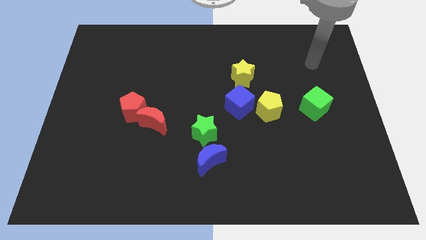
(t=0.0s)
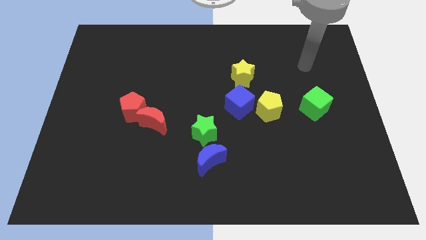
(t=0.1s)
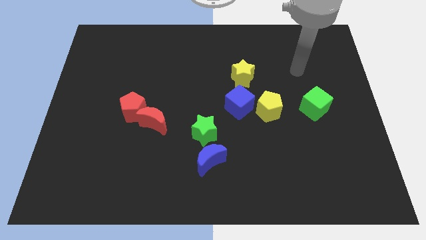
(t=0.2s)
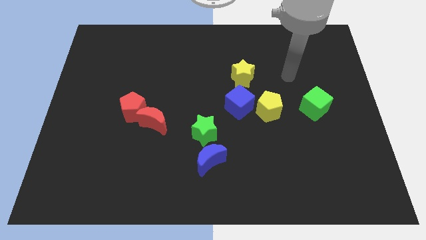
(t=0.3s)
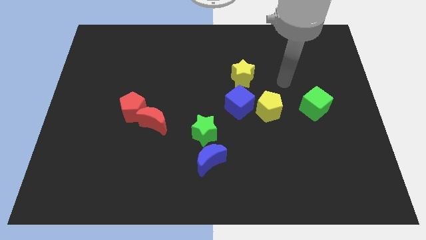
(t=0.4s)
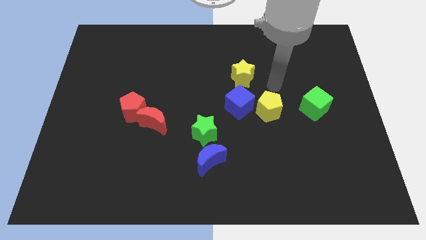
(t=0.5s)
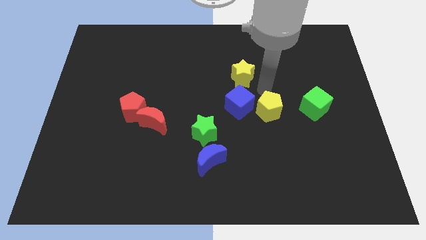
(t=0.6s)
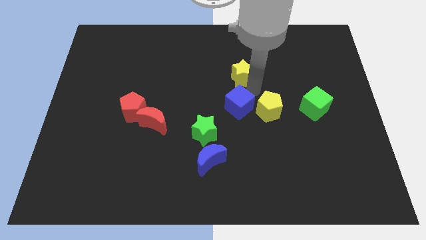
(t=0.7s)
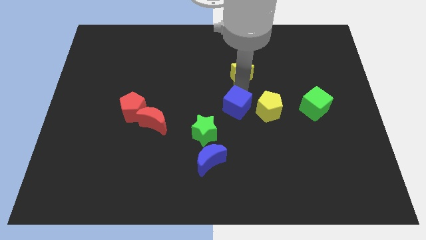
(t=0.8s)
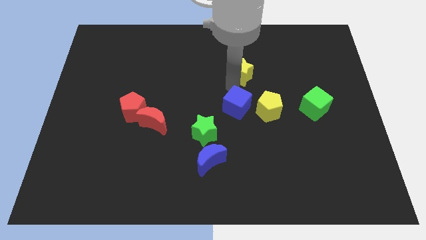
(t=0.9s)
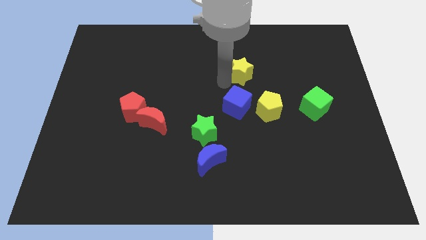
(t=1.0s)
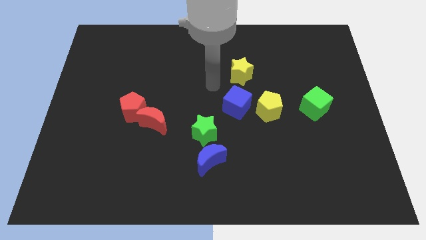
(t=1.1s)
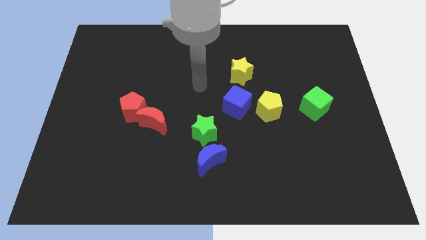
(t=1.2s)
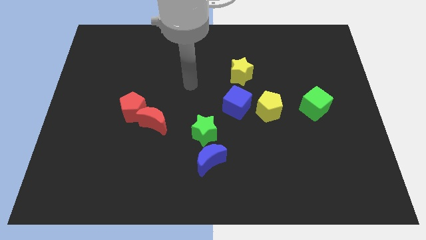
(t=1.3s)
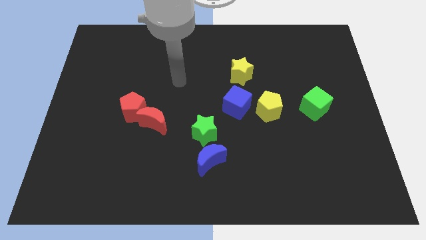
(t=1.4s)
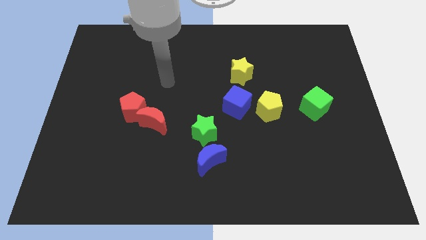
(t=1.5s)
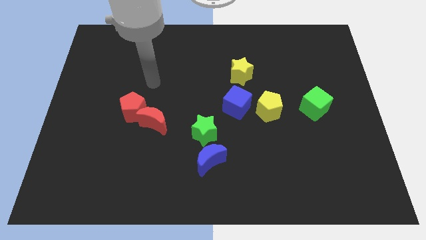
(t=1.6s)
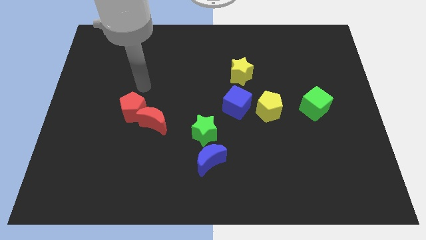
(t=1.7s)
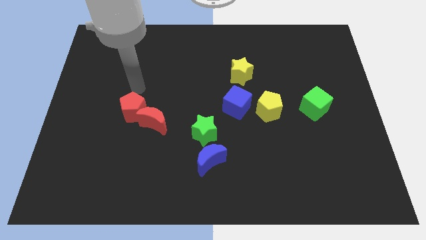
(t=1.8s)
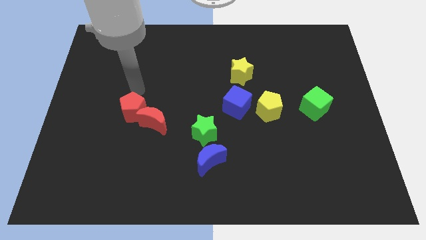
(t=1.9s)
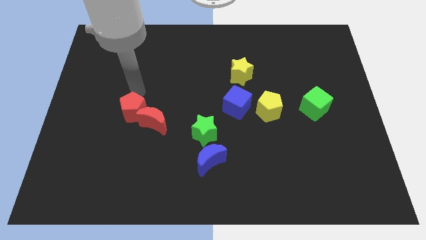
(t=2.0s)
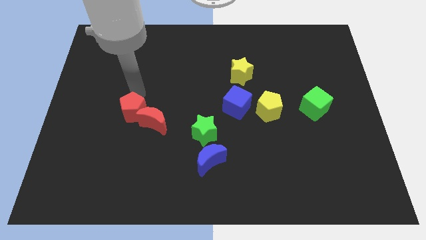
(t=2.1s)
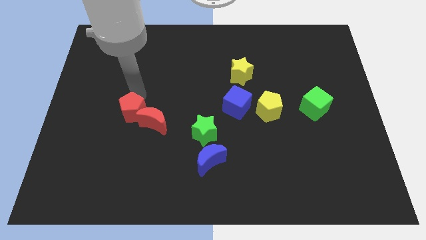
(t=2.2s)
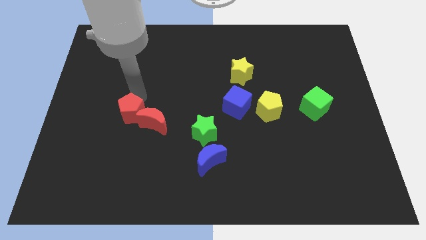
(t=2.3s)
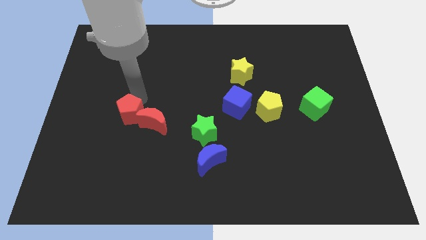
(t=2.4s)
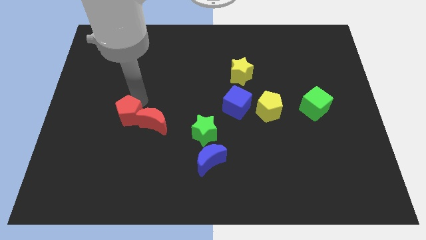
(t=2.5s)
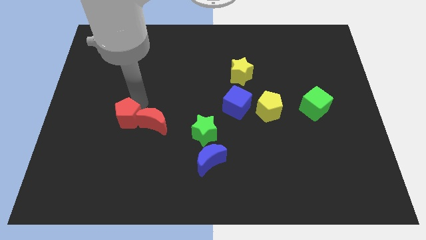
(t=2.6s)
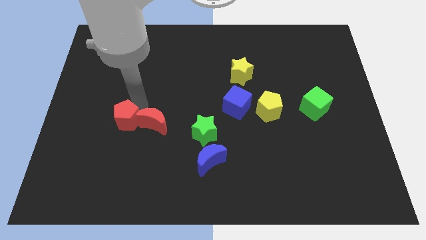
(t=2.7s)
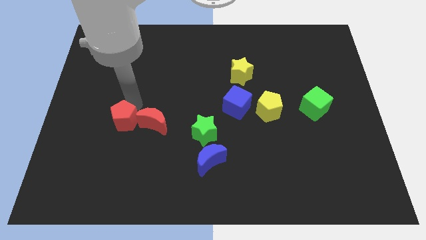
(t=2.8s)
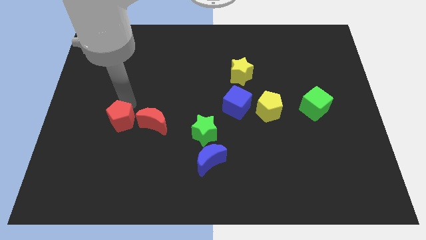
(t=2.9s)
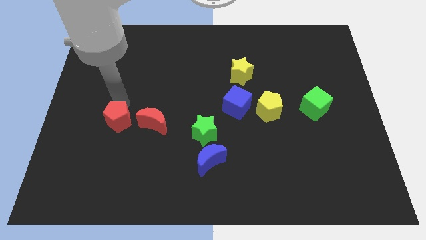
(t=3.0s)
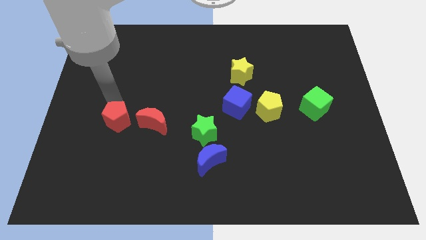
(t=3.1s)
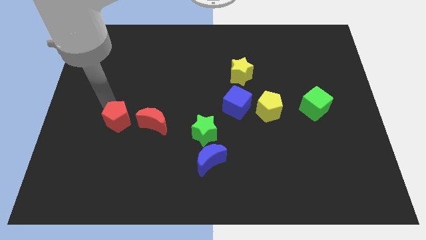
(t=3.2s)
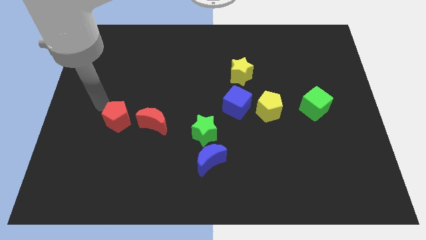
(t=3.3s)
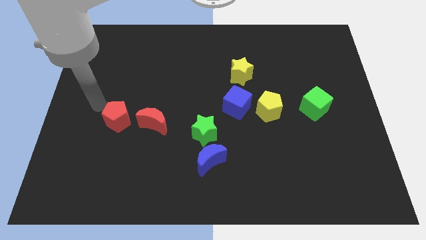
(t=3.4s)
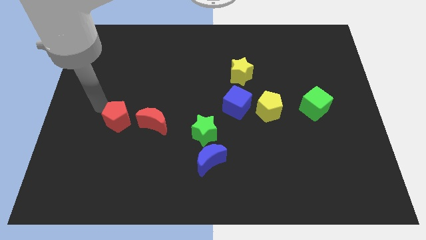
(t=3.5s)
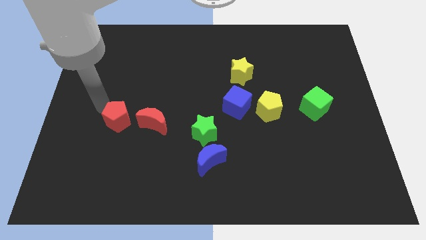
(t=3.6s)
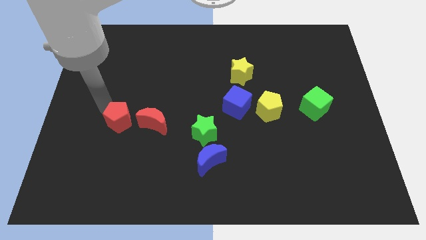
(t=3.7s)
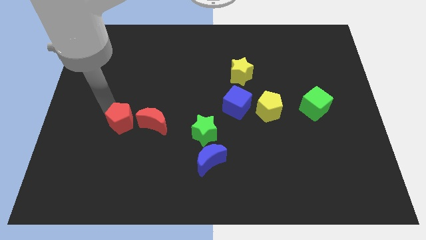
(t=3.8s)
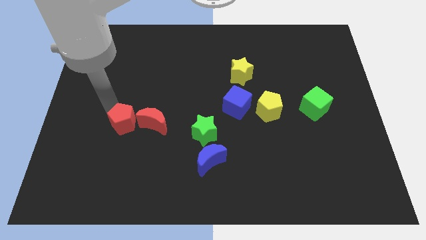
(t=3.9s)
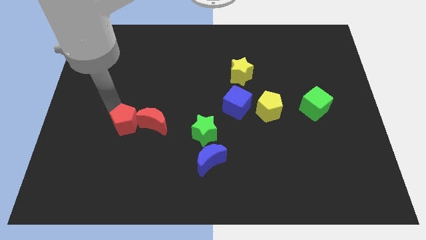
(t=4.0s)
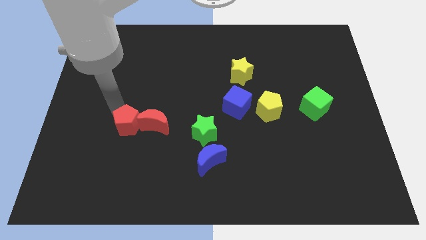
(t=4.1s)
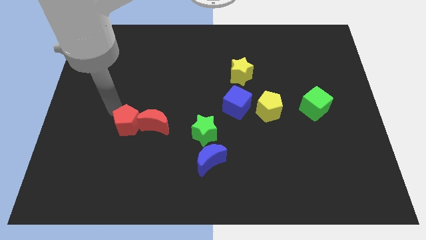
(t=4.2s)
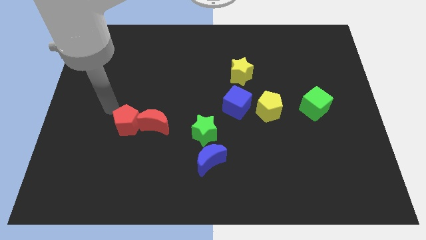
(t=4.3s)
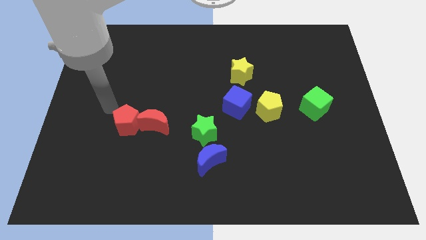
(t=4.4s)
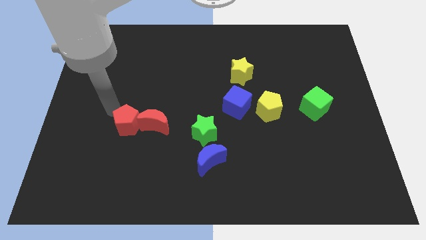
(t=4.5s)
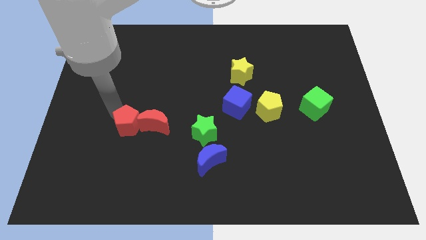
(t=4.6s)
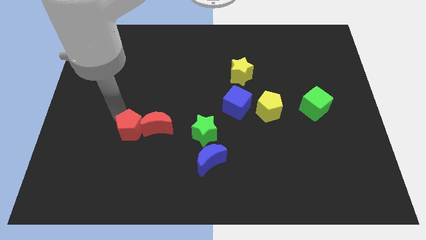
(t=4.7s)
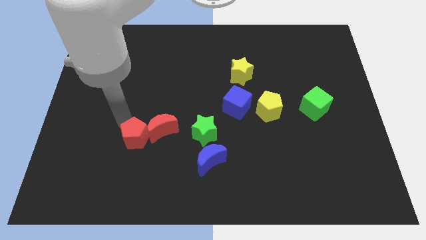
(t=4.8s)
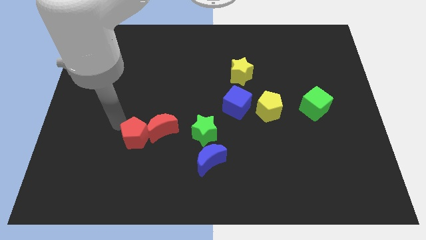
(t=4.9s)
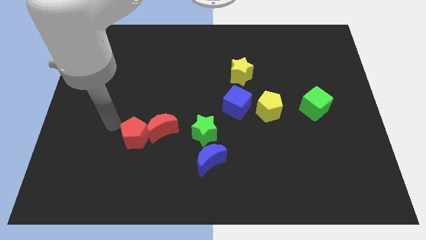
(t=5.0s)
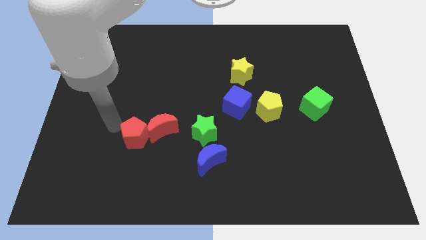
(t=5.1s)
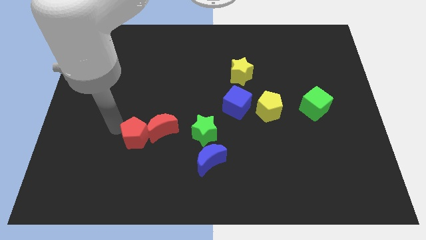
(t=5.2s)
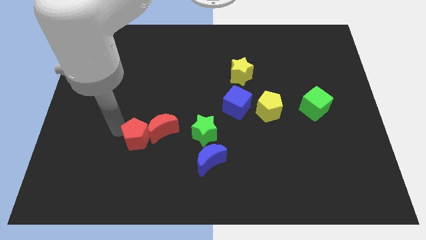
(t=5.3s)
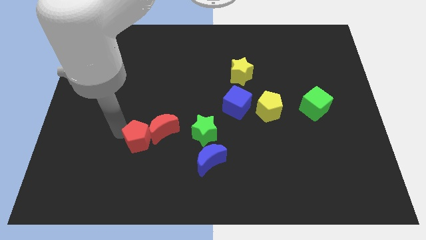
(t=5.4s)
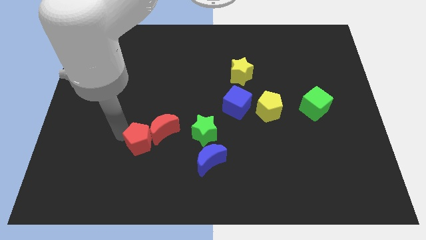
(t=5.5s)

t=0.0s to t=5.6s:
move the red pentagon a little bit diagonally downwards and right

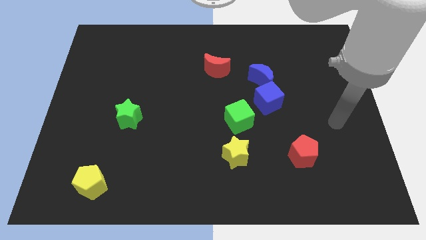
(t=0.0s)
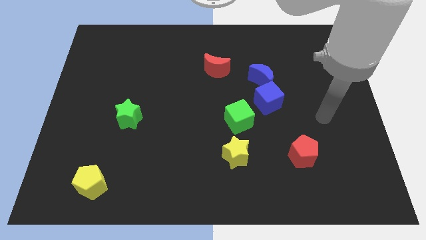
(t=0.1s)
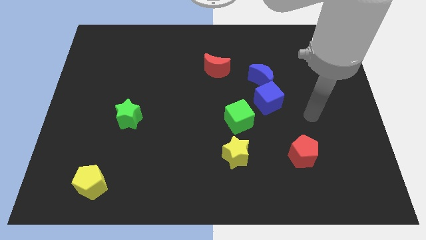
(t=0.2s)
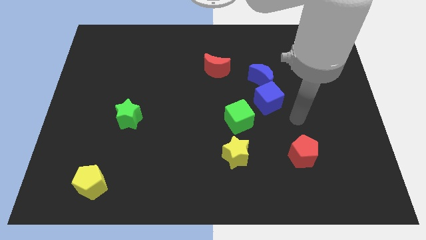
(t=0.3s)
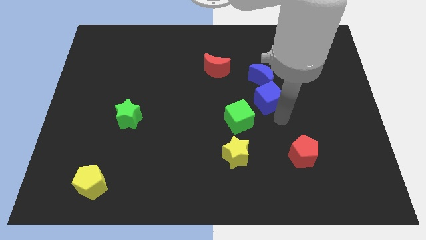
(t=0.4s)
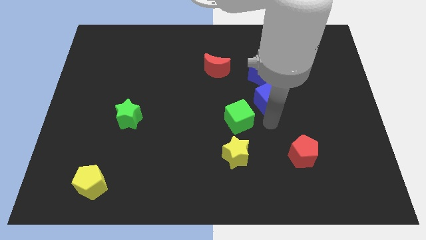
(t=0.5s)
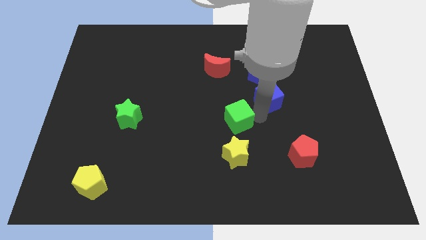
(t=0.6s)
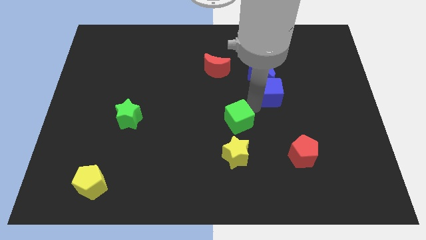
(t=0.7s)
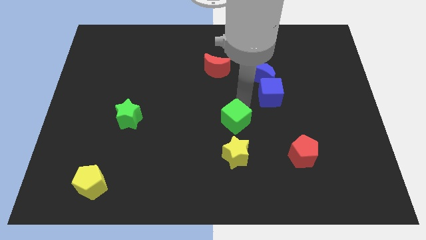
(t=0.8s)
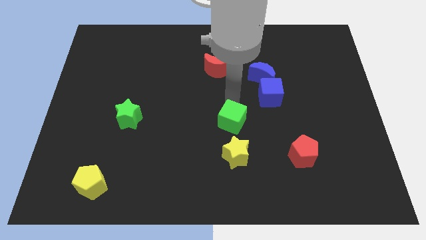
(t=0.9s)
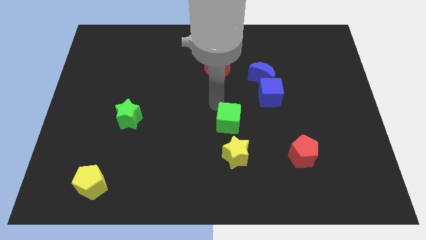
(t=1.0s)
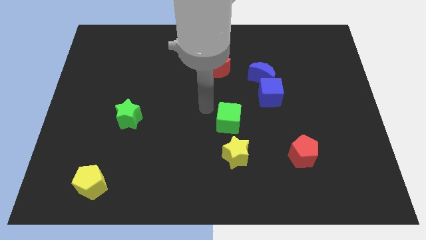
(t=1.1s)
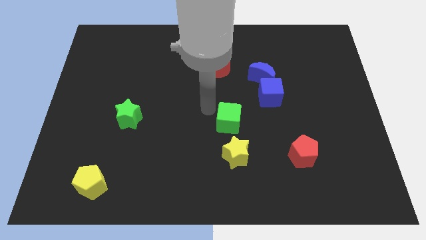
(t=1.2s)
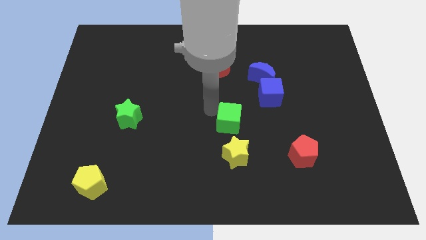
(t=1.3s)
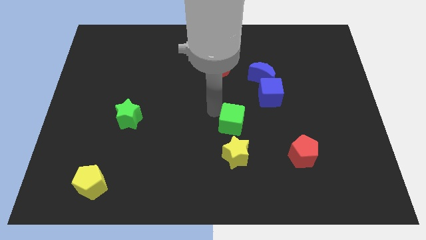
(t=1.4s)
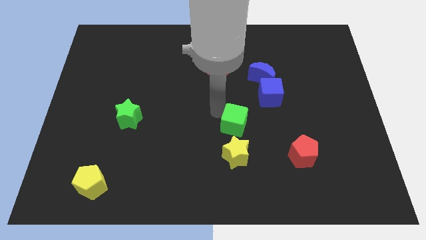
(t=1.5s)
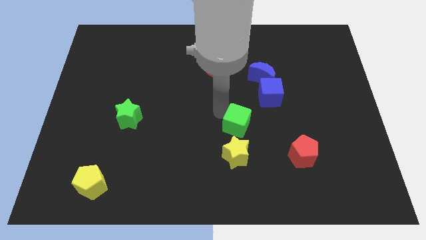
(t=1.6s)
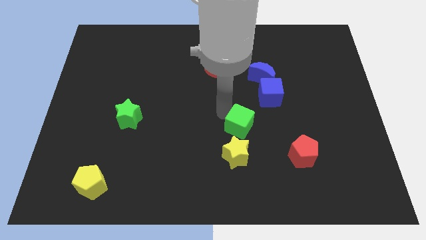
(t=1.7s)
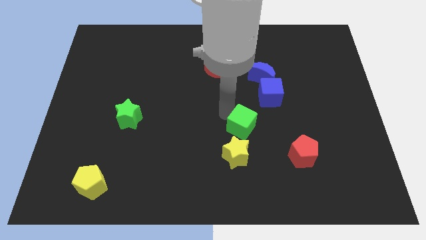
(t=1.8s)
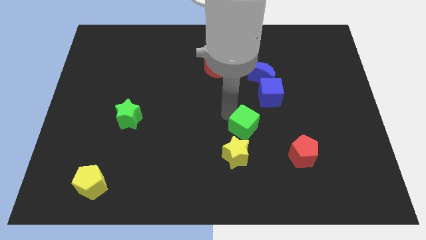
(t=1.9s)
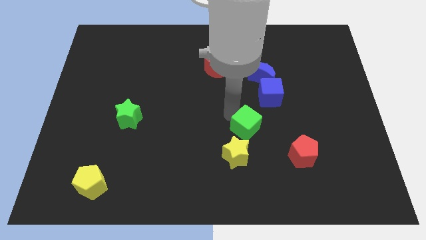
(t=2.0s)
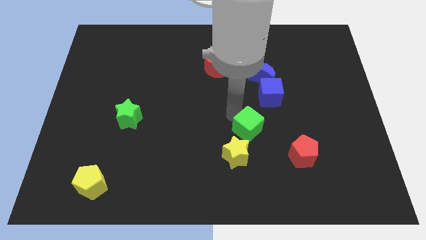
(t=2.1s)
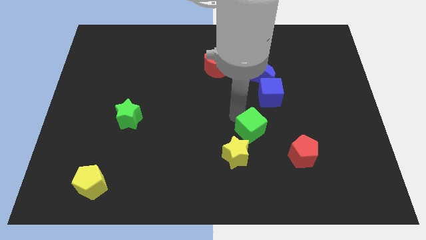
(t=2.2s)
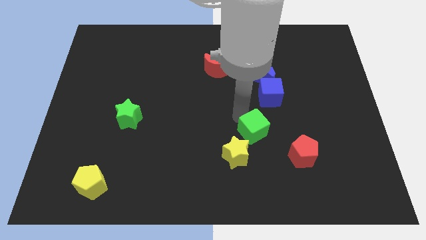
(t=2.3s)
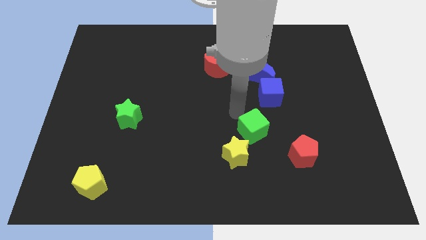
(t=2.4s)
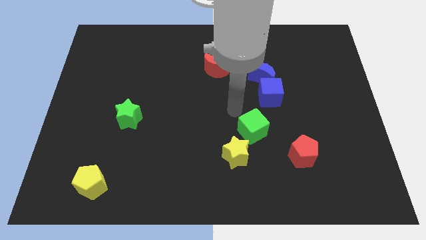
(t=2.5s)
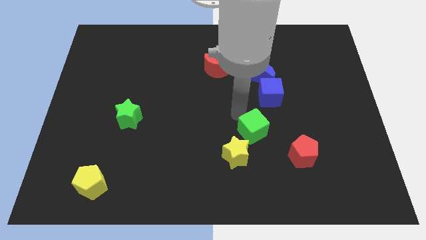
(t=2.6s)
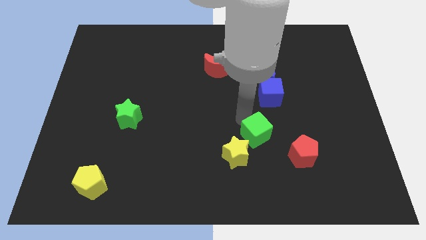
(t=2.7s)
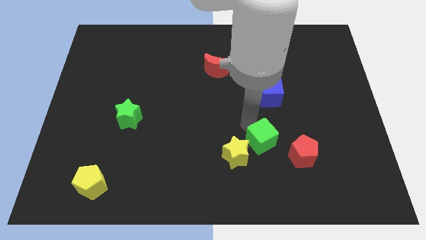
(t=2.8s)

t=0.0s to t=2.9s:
push the green cube diagonally down and to the right somewhat
